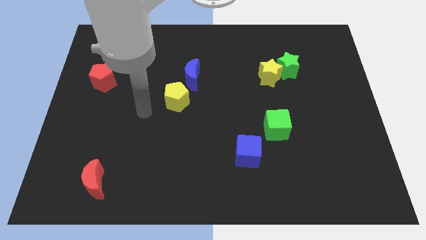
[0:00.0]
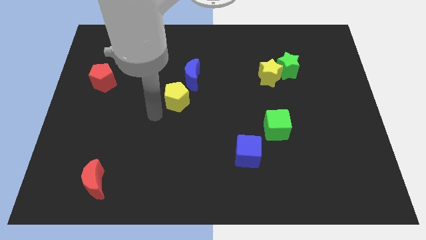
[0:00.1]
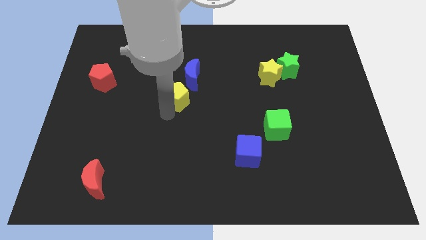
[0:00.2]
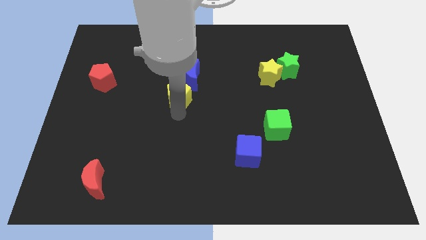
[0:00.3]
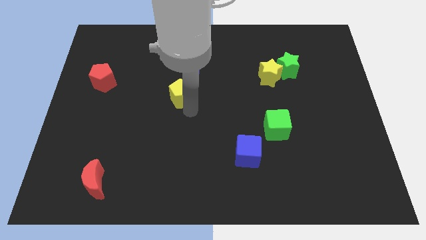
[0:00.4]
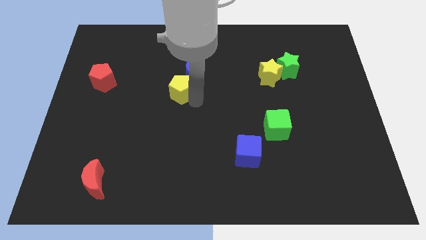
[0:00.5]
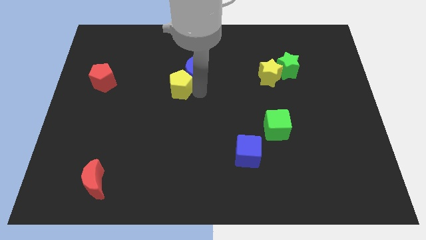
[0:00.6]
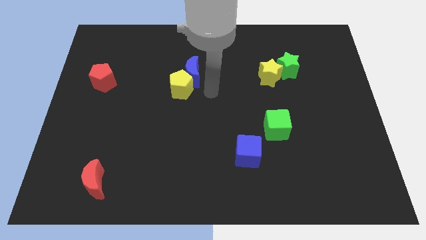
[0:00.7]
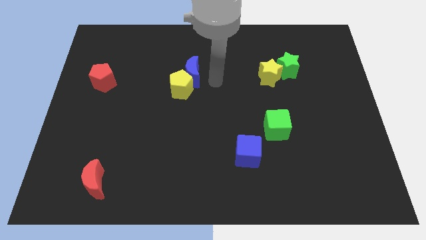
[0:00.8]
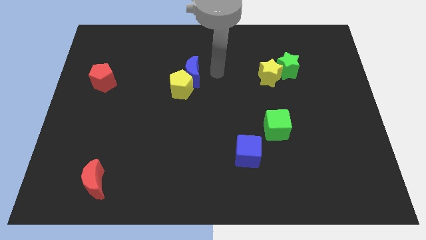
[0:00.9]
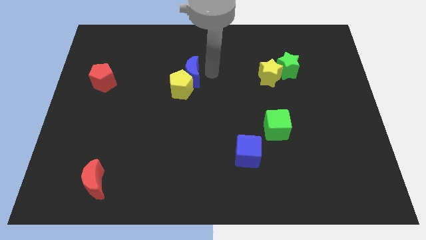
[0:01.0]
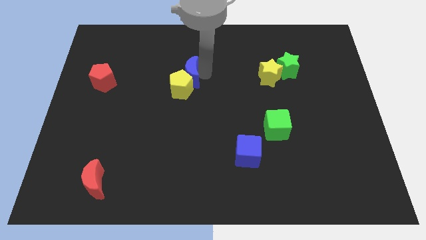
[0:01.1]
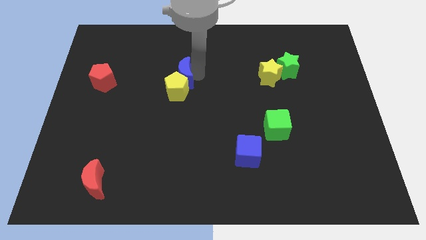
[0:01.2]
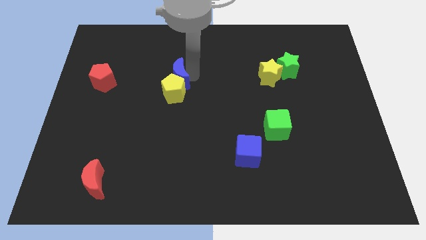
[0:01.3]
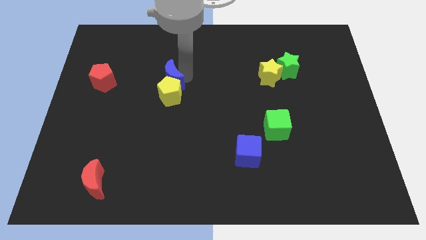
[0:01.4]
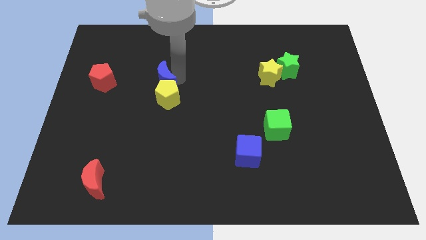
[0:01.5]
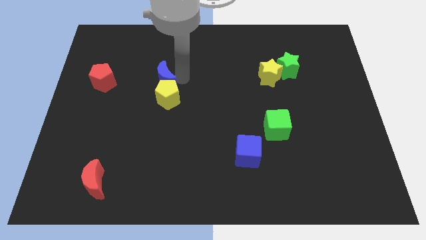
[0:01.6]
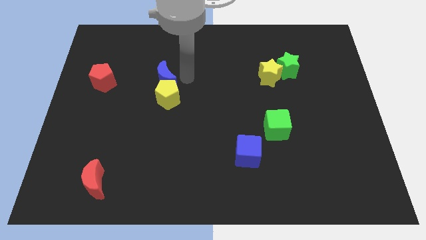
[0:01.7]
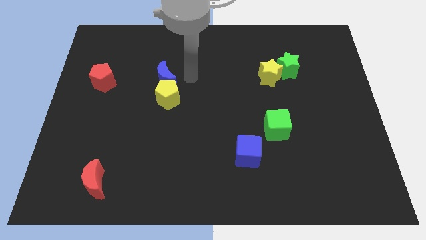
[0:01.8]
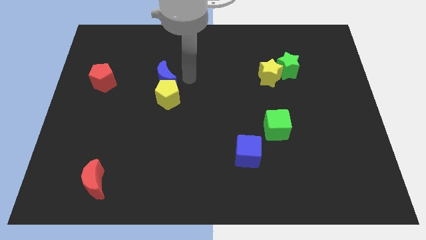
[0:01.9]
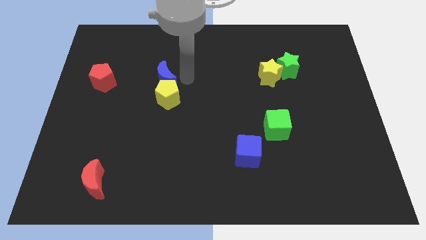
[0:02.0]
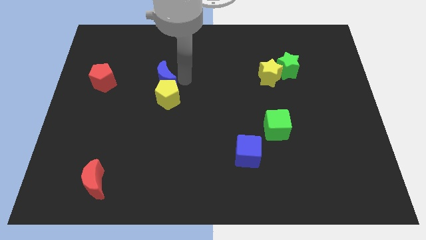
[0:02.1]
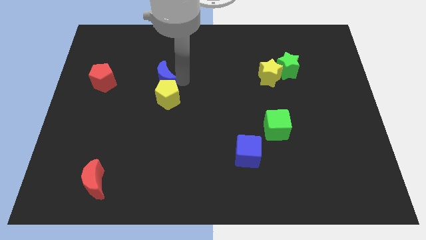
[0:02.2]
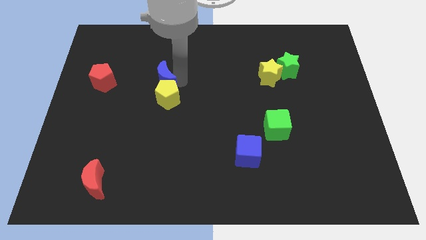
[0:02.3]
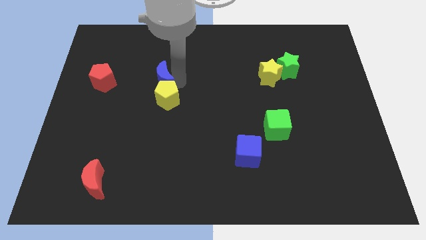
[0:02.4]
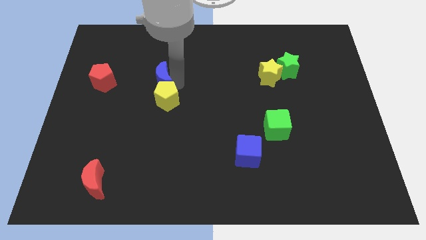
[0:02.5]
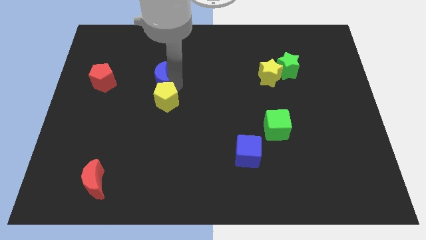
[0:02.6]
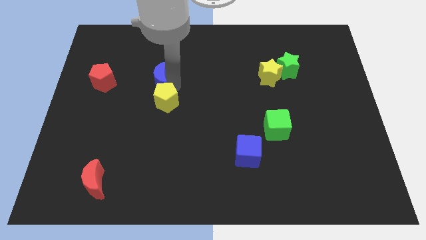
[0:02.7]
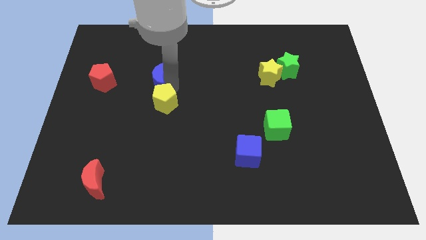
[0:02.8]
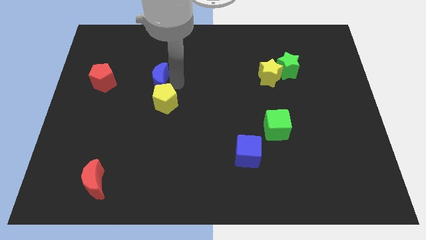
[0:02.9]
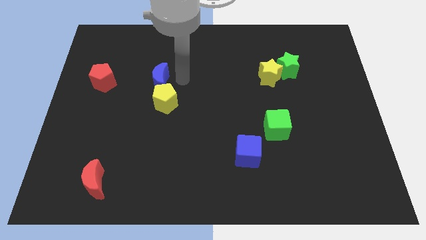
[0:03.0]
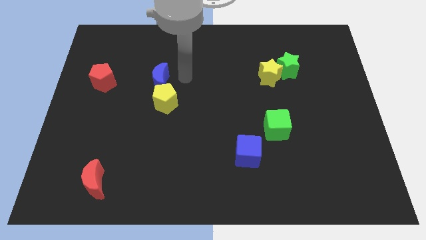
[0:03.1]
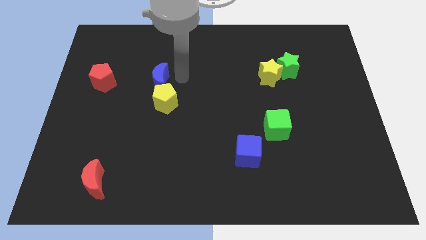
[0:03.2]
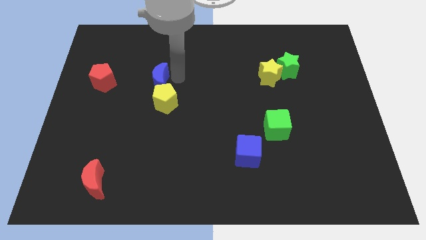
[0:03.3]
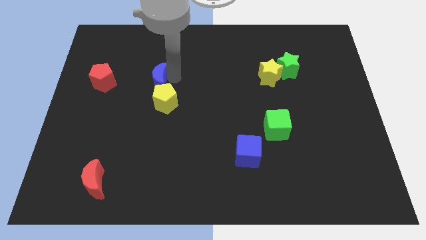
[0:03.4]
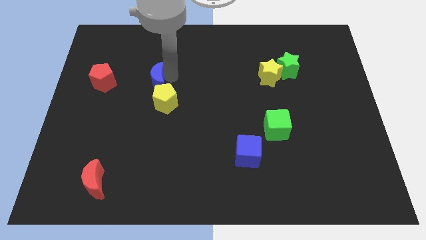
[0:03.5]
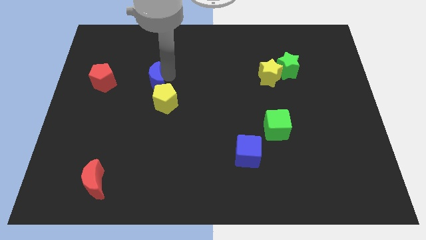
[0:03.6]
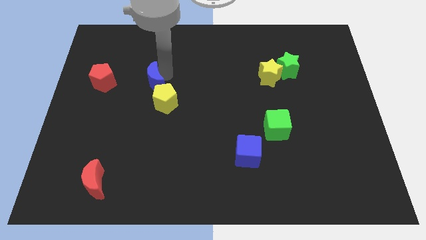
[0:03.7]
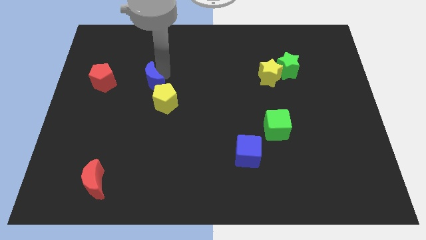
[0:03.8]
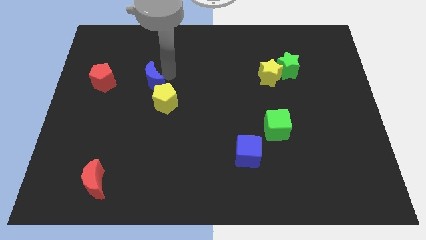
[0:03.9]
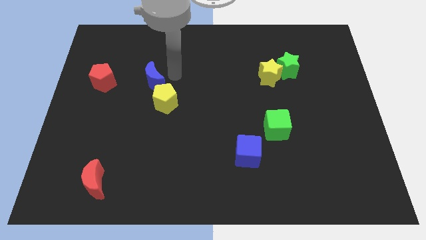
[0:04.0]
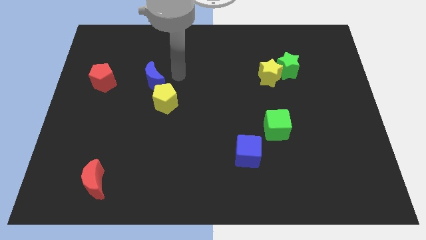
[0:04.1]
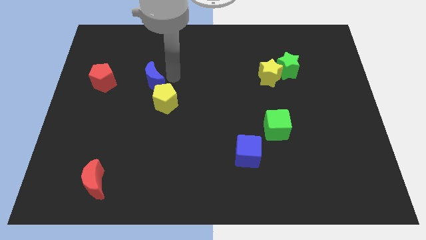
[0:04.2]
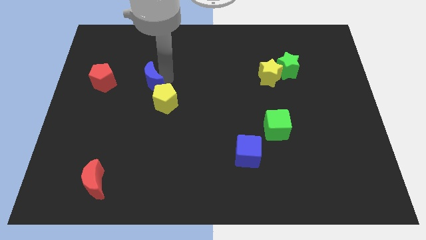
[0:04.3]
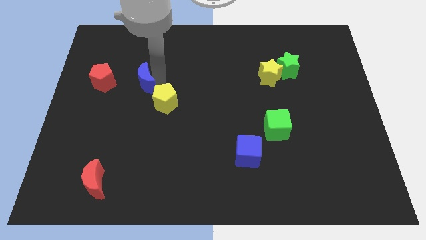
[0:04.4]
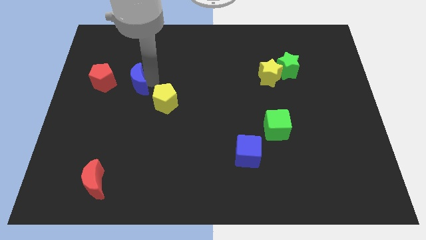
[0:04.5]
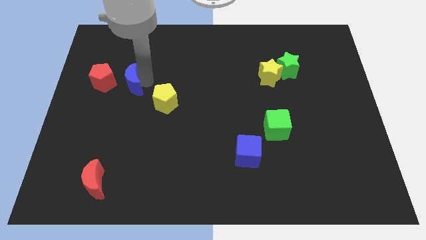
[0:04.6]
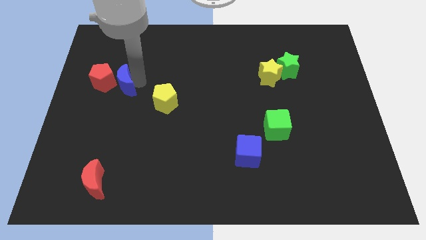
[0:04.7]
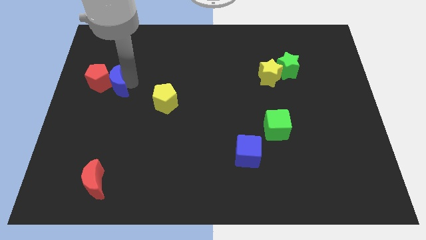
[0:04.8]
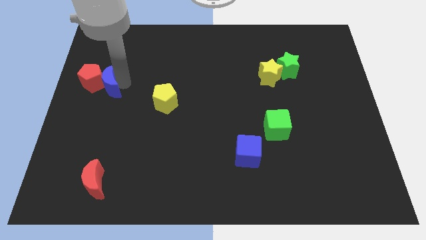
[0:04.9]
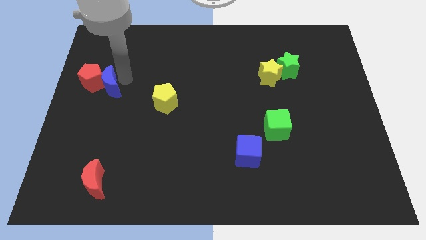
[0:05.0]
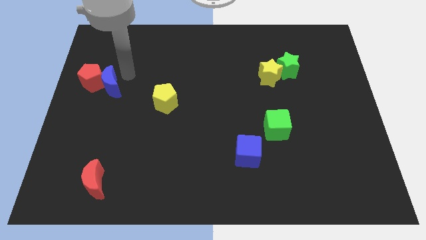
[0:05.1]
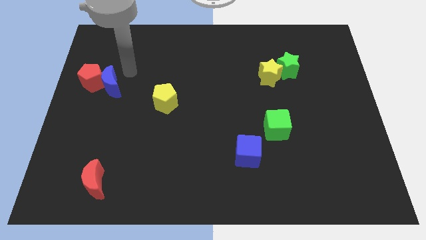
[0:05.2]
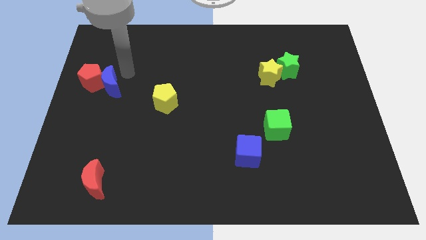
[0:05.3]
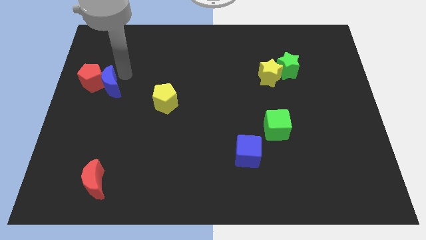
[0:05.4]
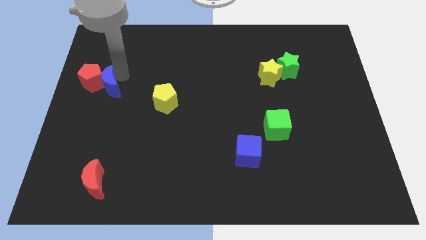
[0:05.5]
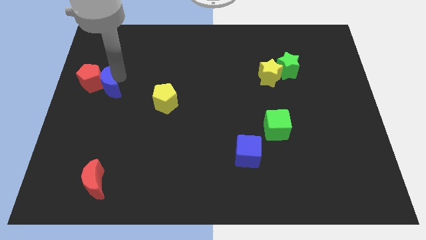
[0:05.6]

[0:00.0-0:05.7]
slide the blue moon to the center left
